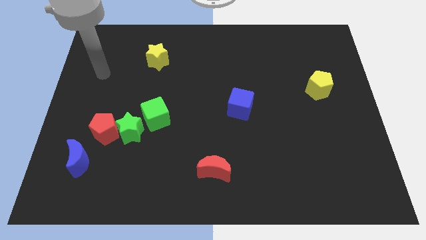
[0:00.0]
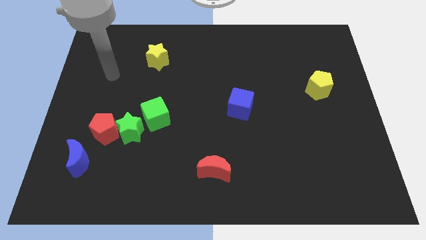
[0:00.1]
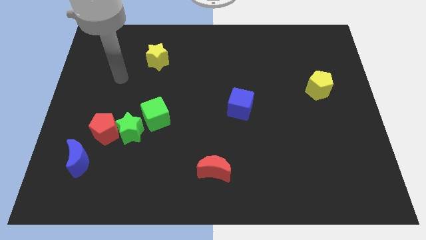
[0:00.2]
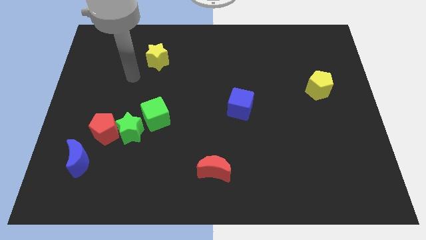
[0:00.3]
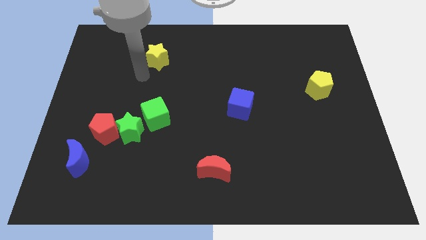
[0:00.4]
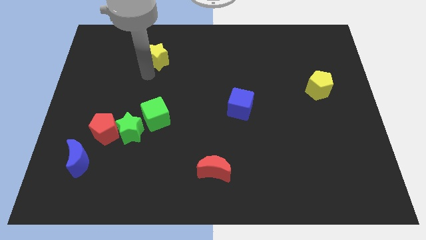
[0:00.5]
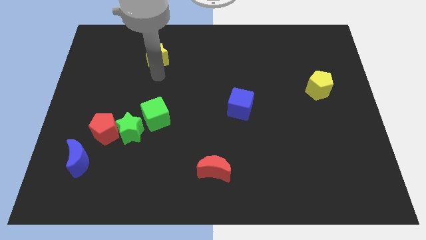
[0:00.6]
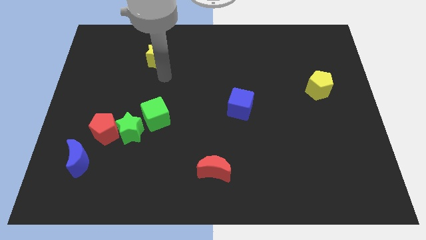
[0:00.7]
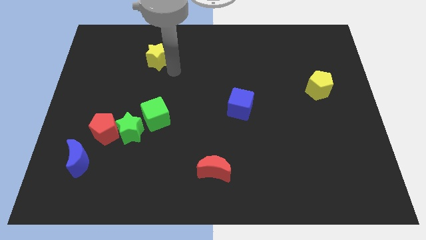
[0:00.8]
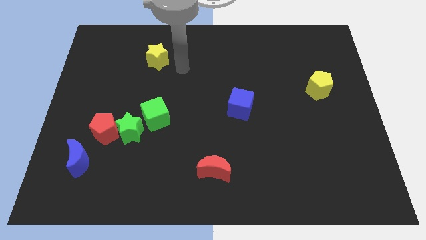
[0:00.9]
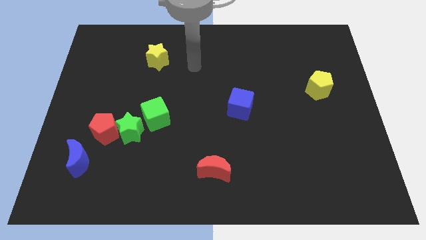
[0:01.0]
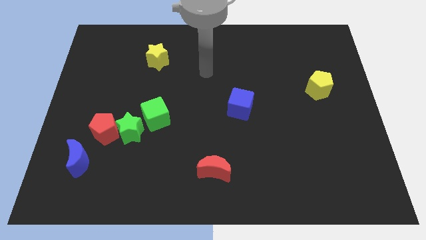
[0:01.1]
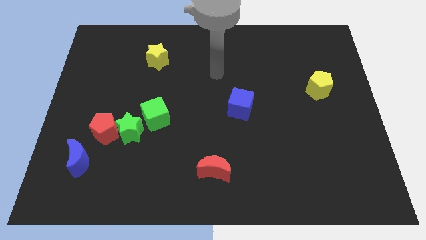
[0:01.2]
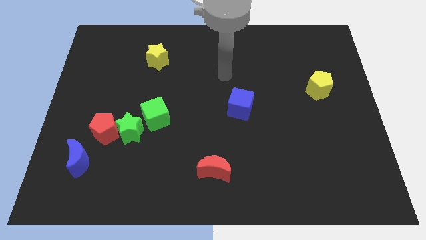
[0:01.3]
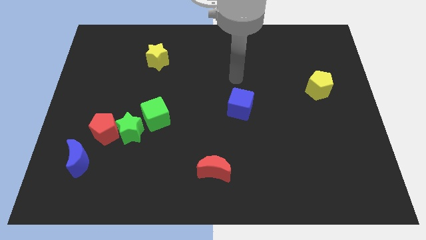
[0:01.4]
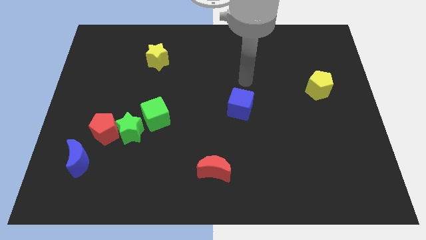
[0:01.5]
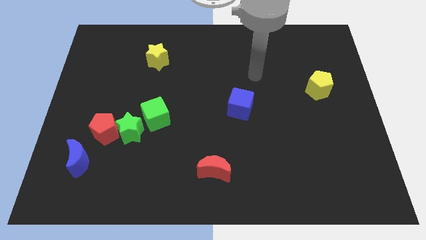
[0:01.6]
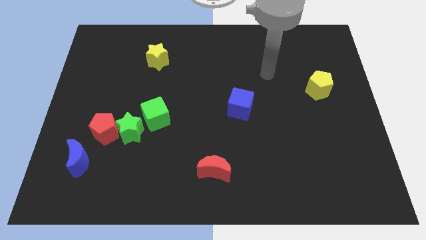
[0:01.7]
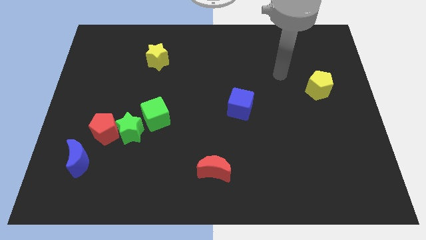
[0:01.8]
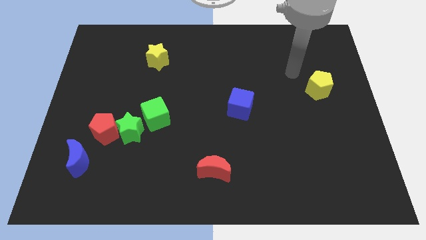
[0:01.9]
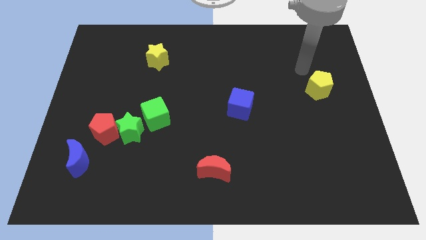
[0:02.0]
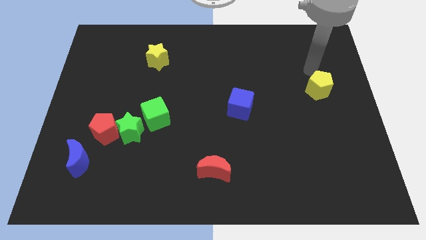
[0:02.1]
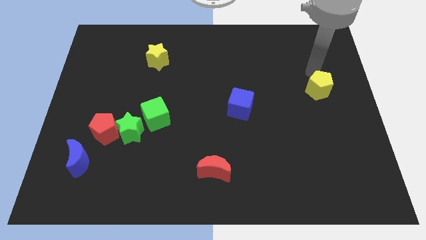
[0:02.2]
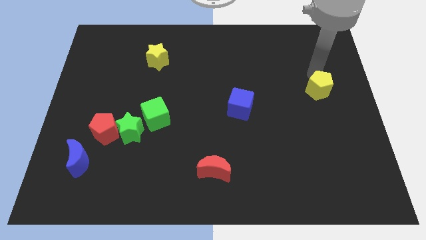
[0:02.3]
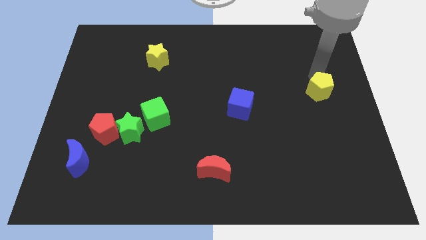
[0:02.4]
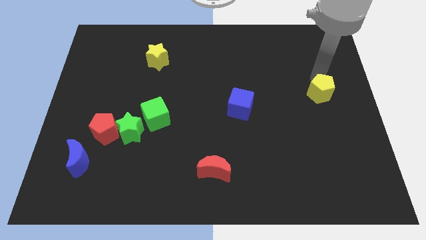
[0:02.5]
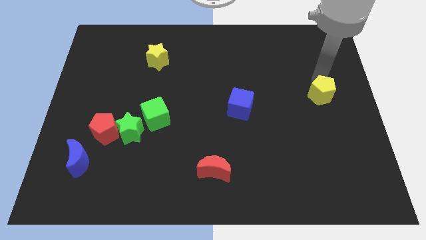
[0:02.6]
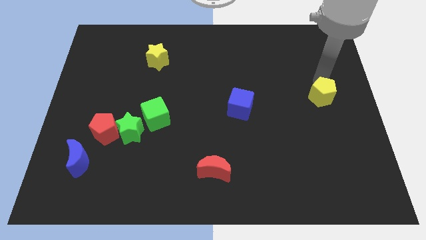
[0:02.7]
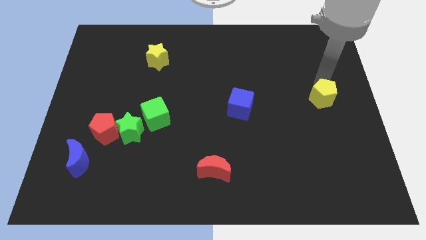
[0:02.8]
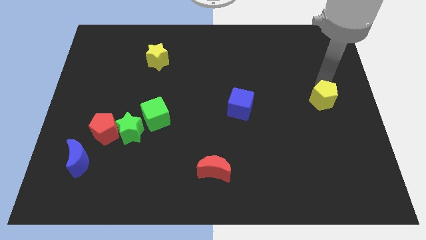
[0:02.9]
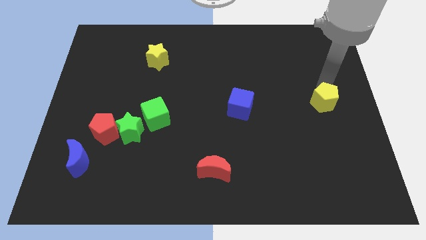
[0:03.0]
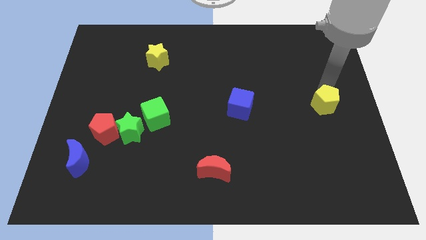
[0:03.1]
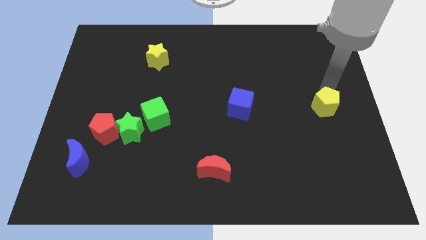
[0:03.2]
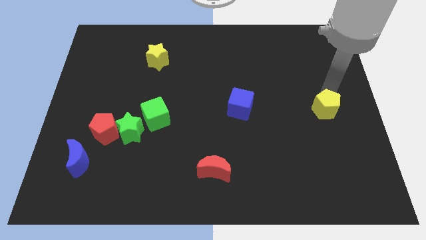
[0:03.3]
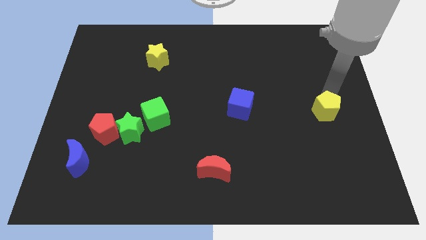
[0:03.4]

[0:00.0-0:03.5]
move the yellow pentagon a little bit downwards

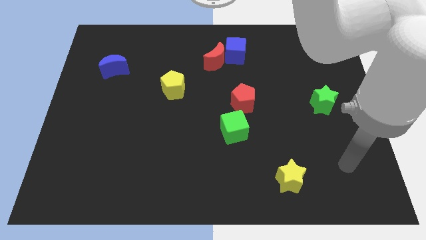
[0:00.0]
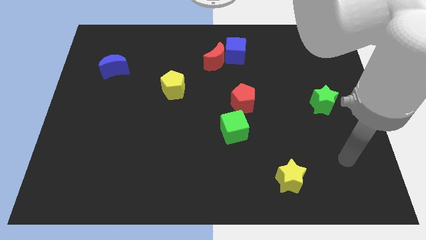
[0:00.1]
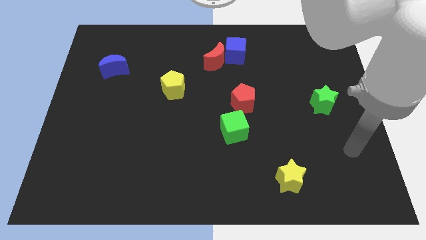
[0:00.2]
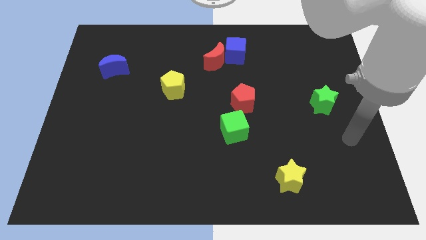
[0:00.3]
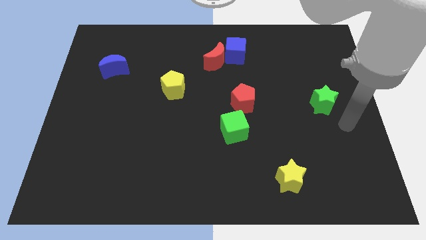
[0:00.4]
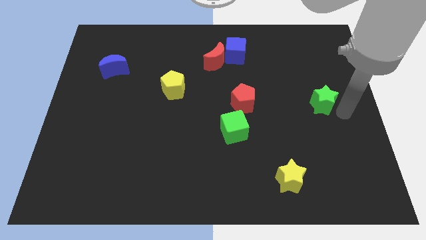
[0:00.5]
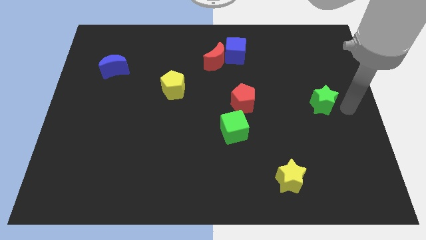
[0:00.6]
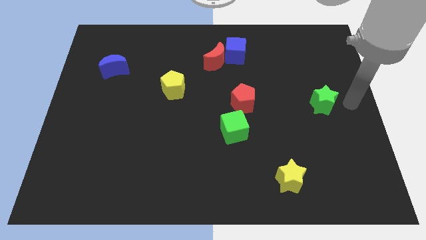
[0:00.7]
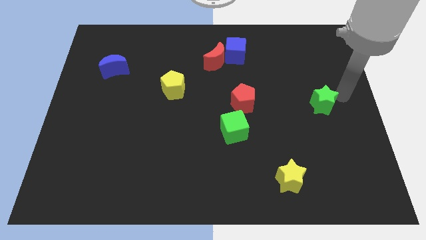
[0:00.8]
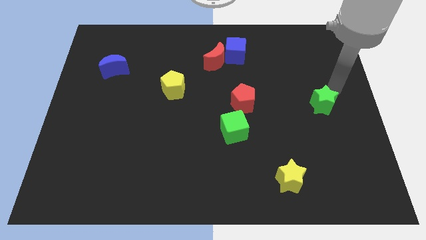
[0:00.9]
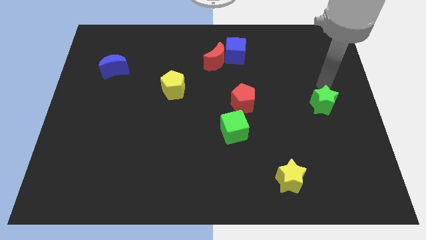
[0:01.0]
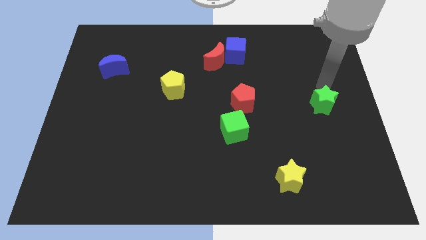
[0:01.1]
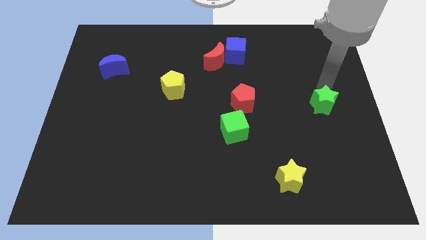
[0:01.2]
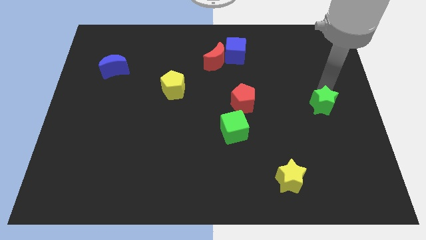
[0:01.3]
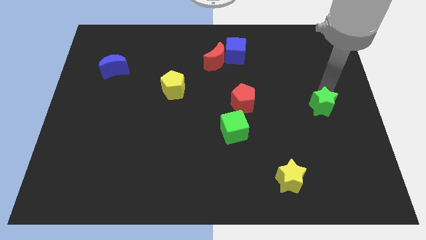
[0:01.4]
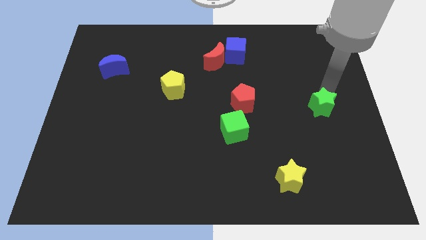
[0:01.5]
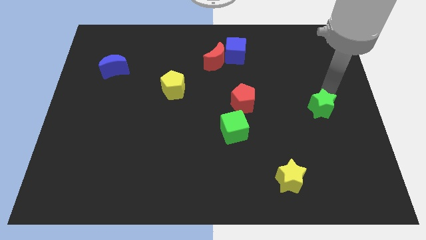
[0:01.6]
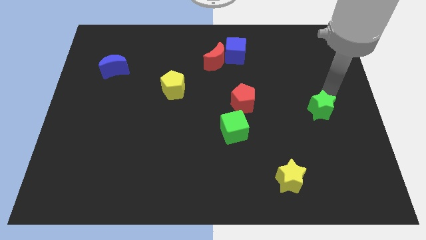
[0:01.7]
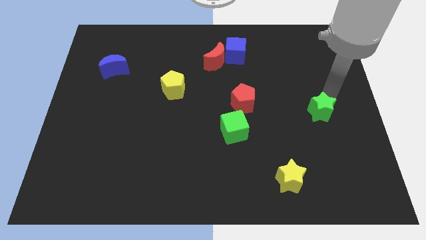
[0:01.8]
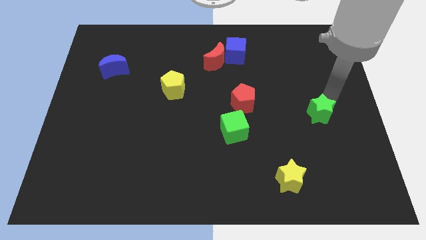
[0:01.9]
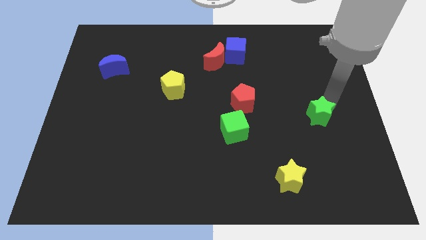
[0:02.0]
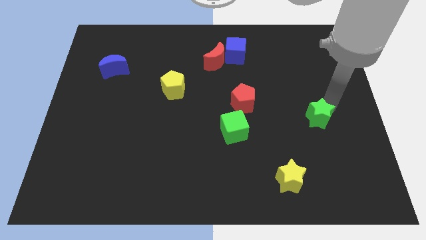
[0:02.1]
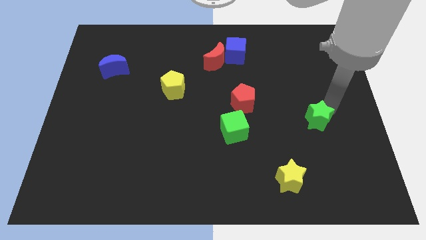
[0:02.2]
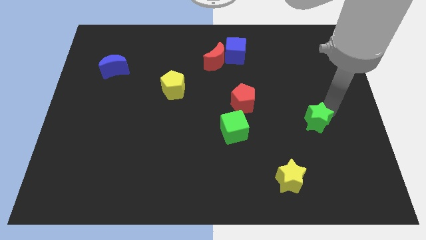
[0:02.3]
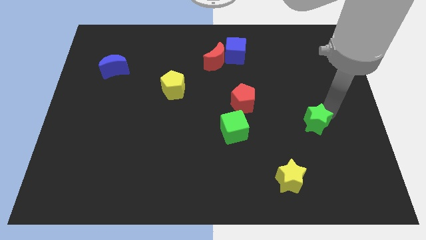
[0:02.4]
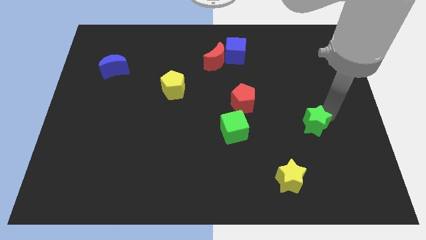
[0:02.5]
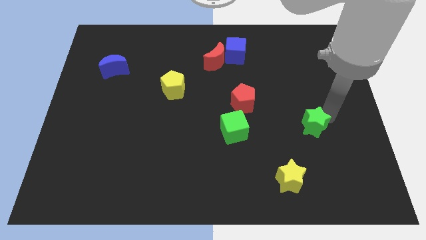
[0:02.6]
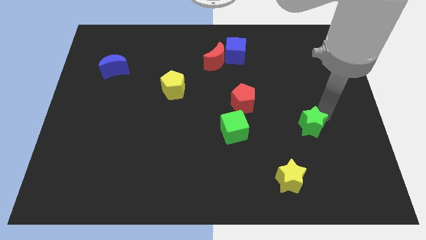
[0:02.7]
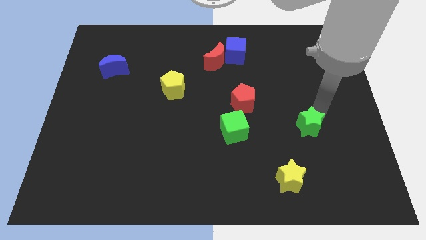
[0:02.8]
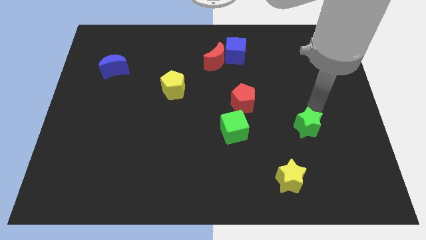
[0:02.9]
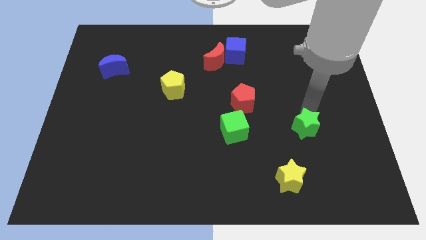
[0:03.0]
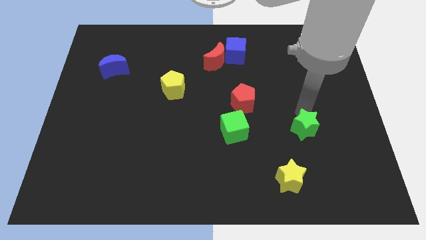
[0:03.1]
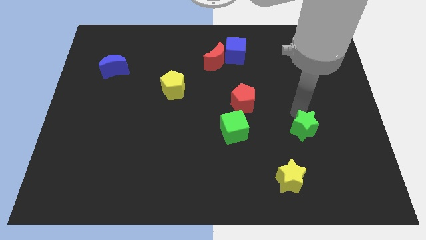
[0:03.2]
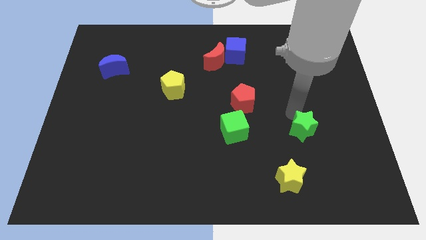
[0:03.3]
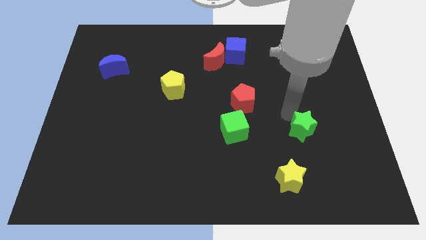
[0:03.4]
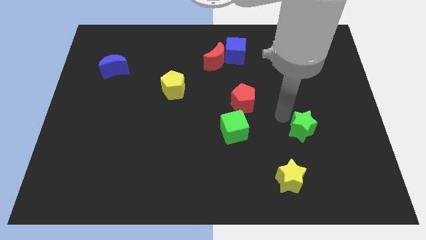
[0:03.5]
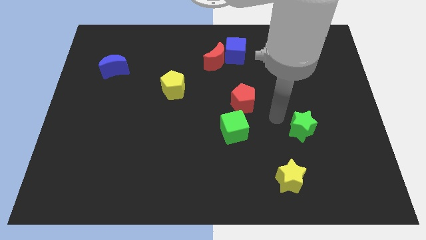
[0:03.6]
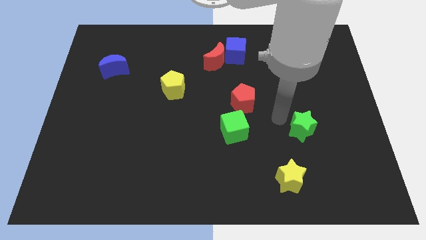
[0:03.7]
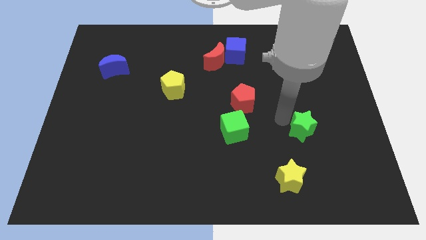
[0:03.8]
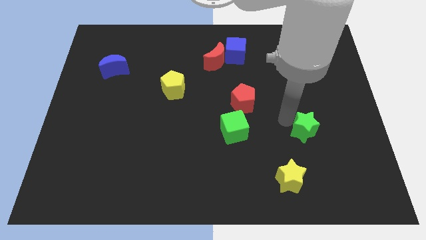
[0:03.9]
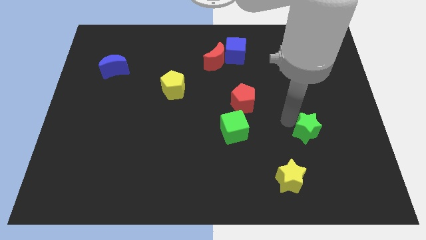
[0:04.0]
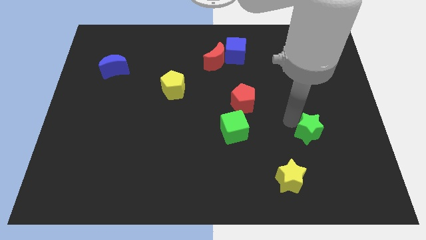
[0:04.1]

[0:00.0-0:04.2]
move the green star a bit down
